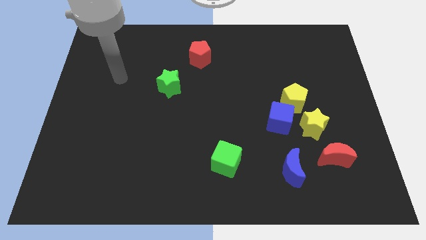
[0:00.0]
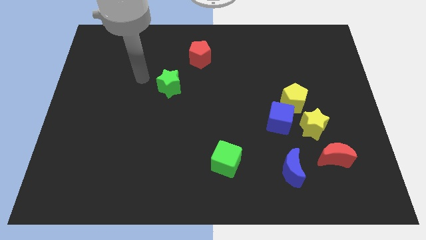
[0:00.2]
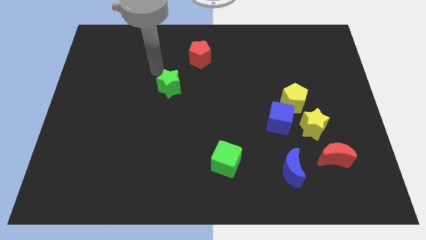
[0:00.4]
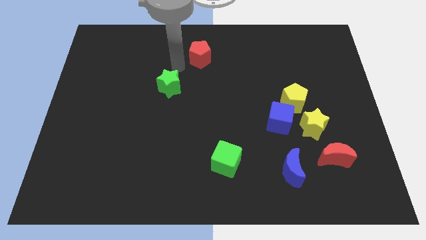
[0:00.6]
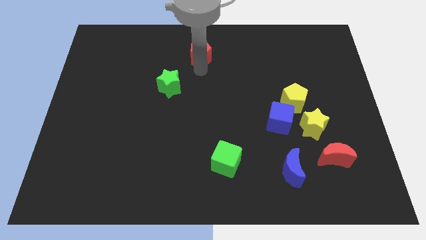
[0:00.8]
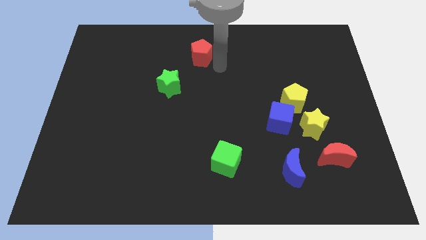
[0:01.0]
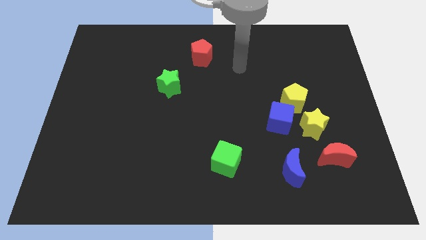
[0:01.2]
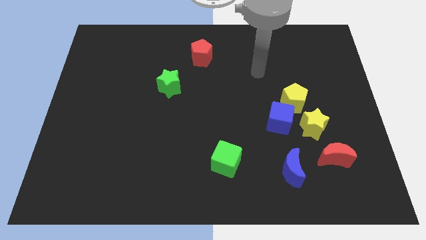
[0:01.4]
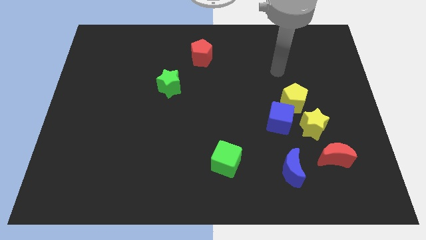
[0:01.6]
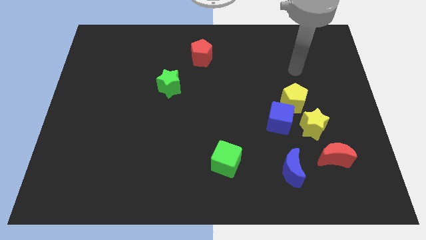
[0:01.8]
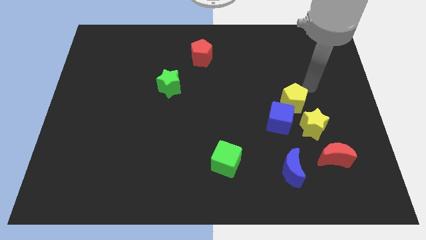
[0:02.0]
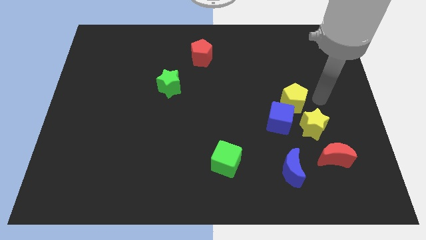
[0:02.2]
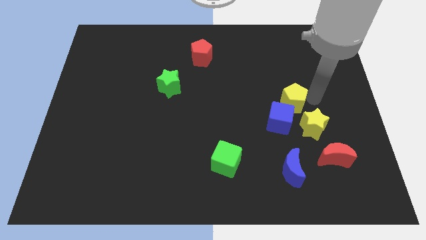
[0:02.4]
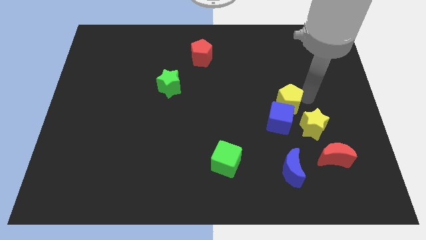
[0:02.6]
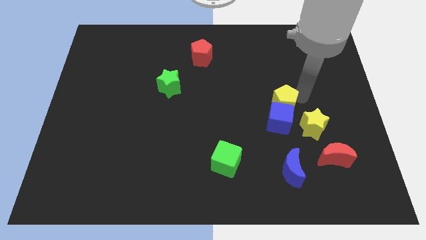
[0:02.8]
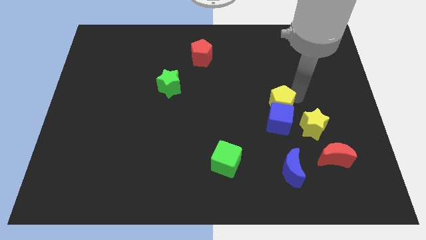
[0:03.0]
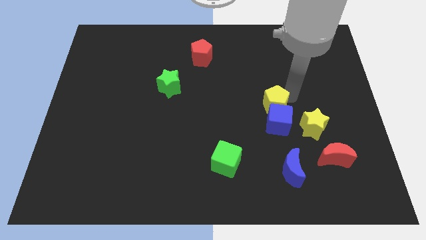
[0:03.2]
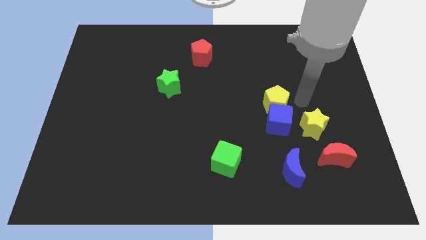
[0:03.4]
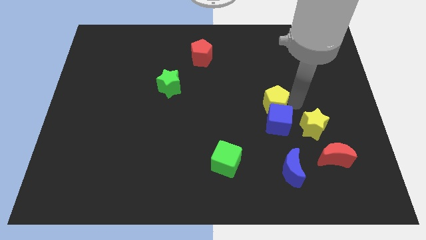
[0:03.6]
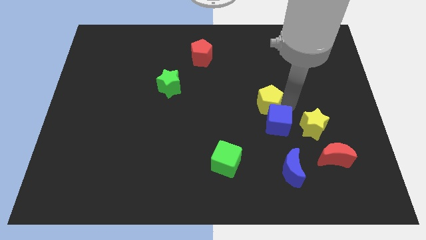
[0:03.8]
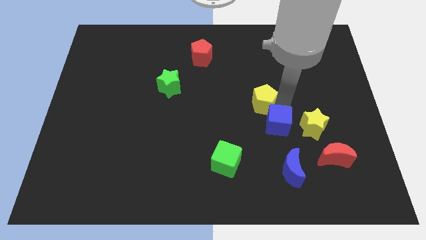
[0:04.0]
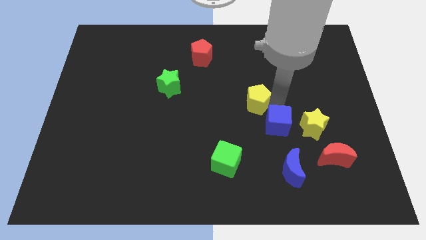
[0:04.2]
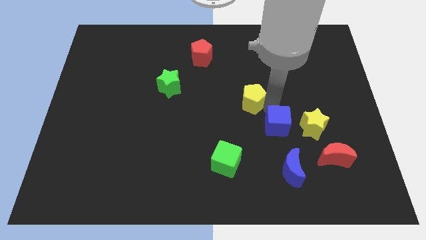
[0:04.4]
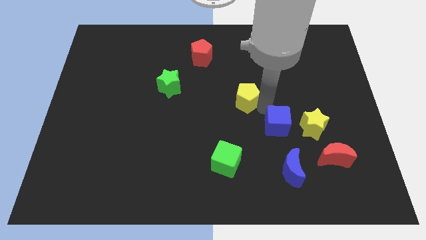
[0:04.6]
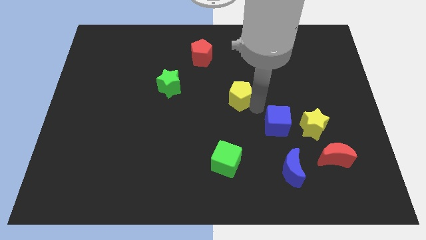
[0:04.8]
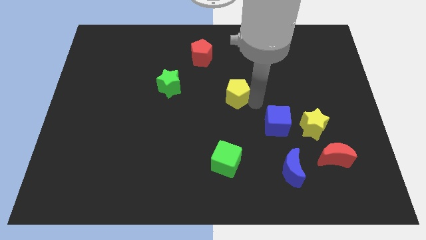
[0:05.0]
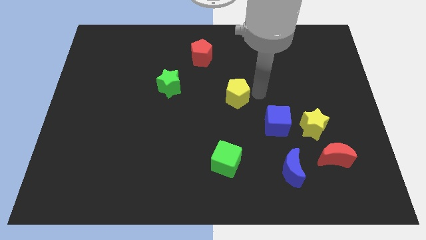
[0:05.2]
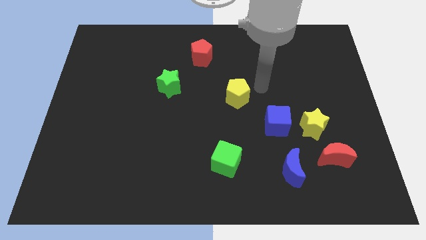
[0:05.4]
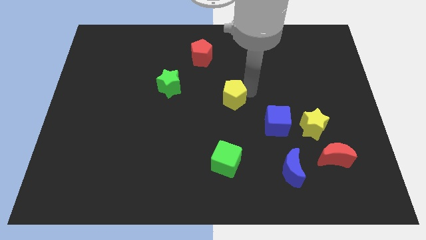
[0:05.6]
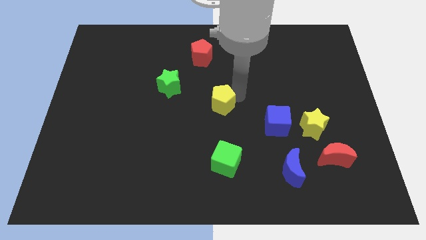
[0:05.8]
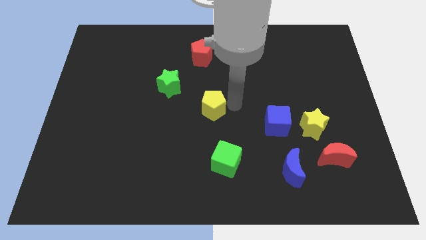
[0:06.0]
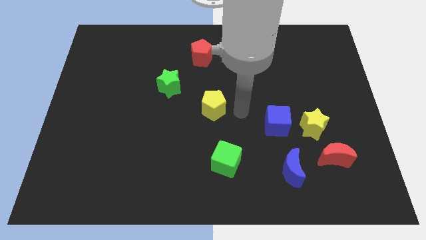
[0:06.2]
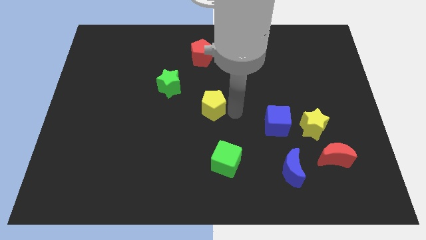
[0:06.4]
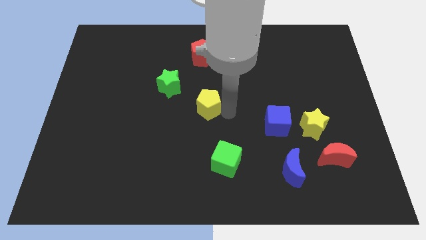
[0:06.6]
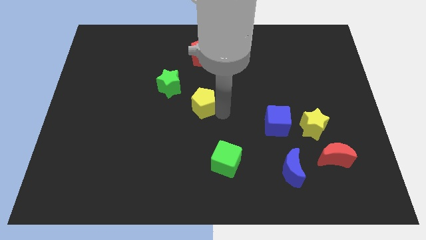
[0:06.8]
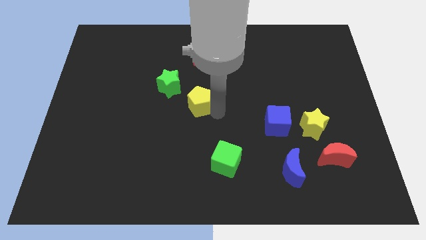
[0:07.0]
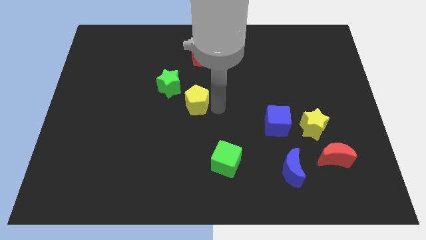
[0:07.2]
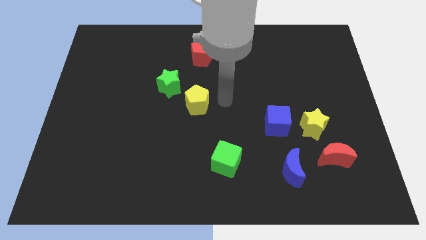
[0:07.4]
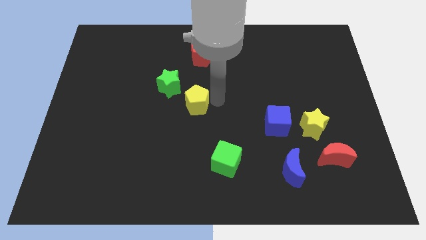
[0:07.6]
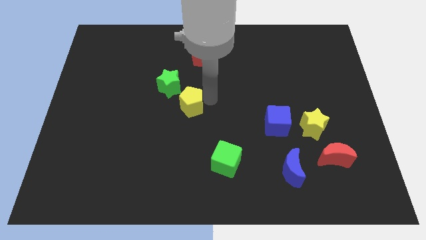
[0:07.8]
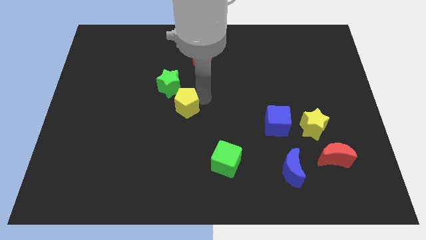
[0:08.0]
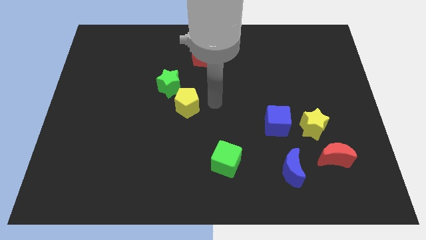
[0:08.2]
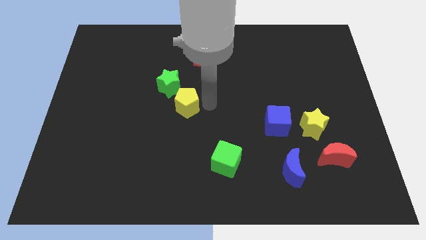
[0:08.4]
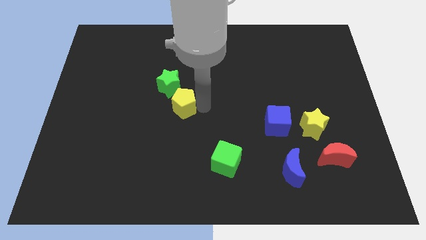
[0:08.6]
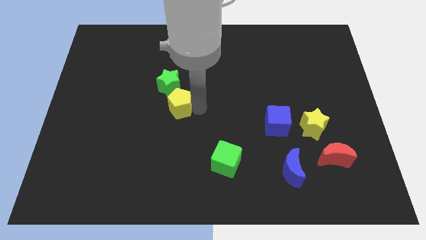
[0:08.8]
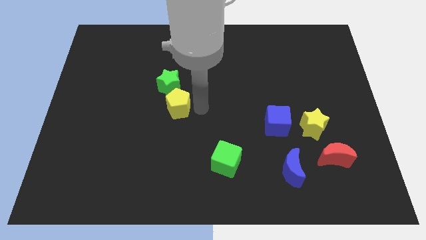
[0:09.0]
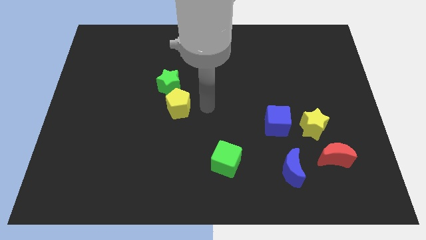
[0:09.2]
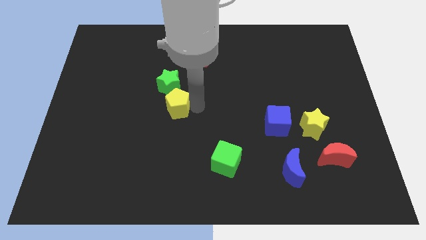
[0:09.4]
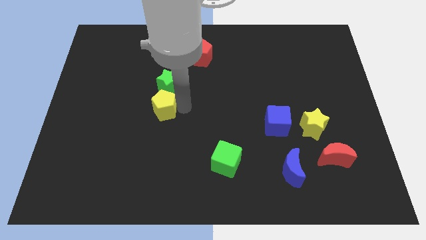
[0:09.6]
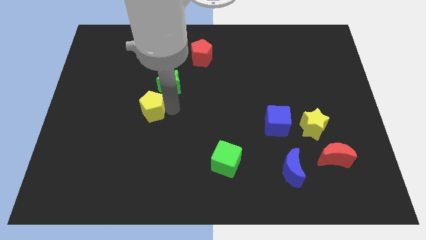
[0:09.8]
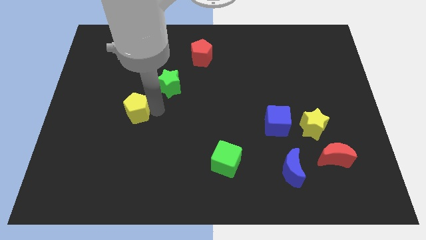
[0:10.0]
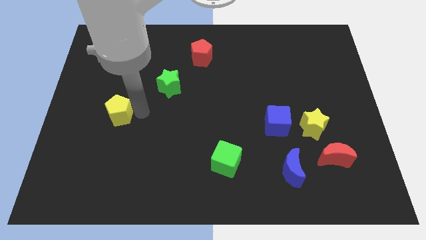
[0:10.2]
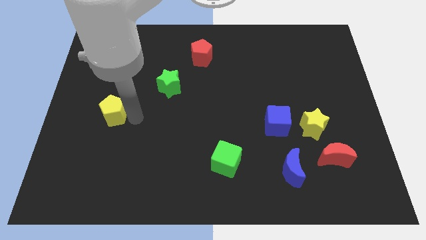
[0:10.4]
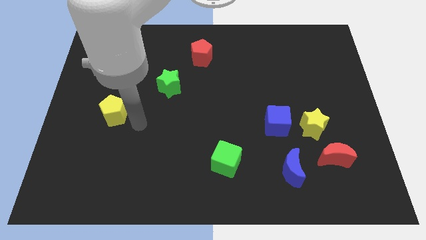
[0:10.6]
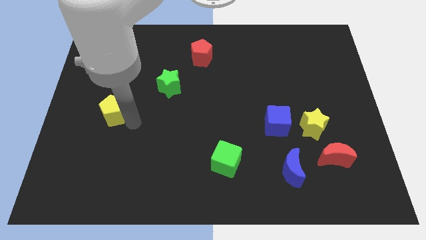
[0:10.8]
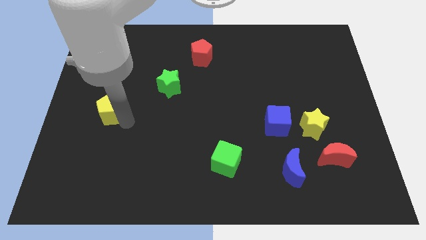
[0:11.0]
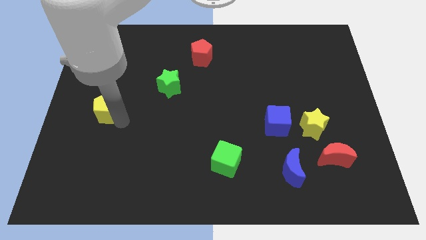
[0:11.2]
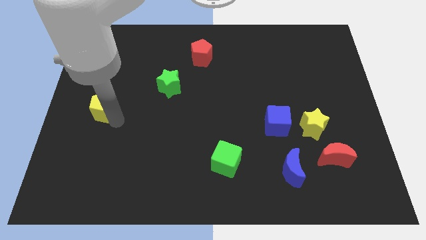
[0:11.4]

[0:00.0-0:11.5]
push the yellow pentagon to the left side of the board
